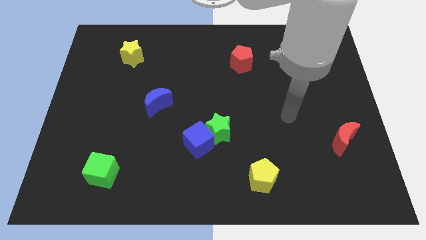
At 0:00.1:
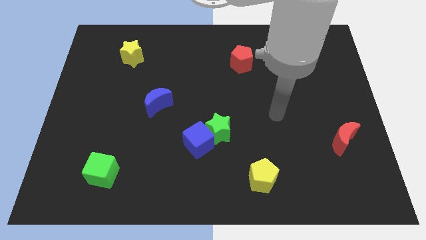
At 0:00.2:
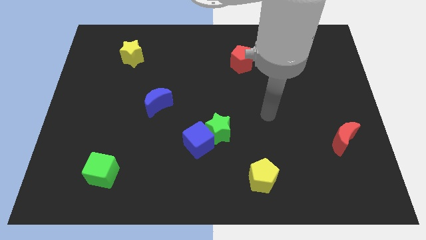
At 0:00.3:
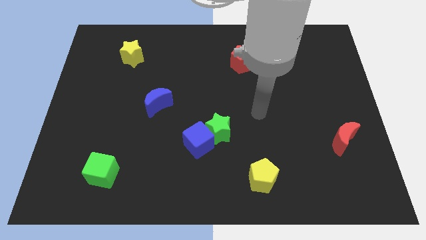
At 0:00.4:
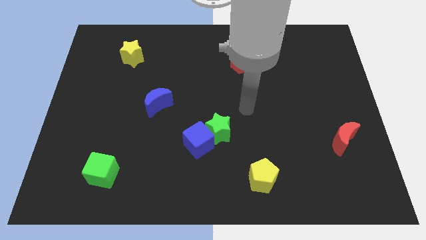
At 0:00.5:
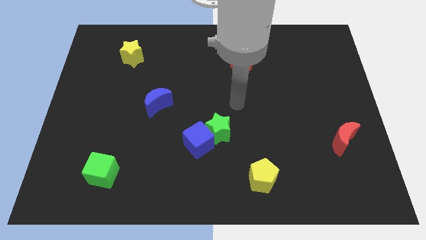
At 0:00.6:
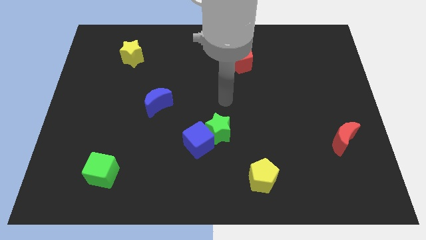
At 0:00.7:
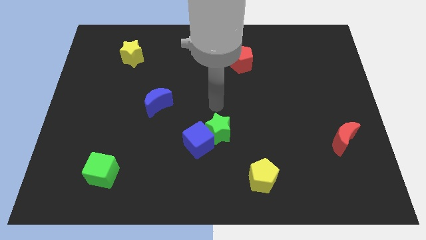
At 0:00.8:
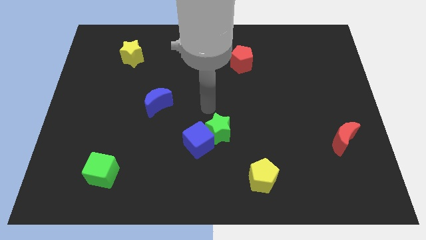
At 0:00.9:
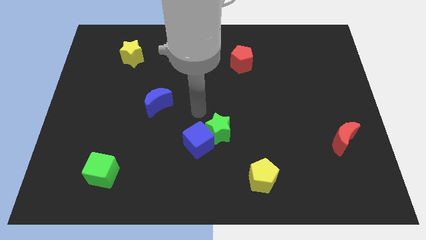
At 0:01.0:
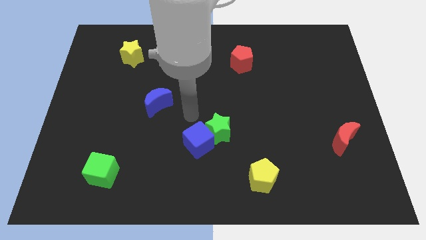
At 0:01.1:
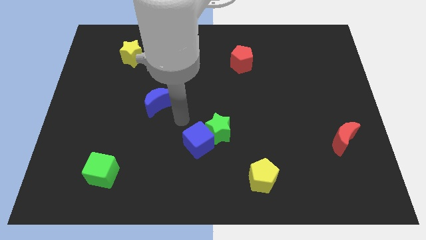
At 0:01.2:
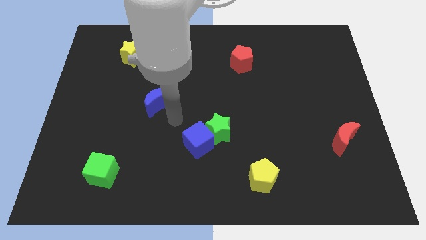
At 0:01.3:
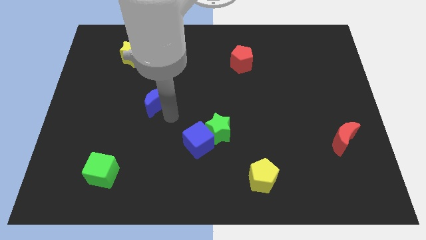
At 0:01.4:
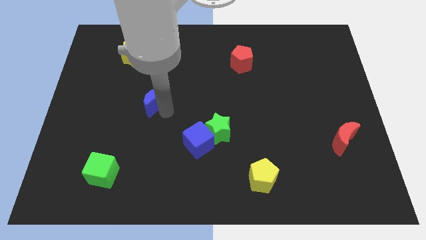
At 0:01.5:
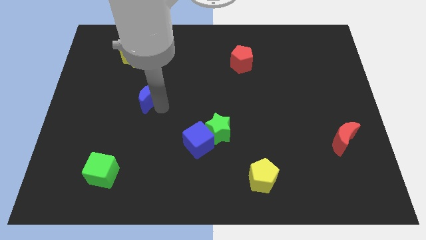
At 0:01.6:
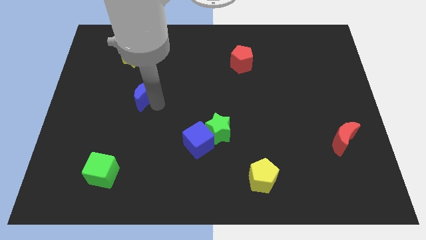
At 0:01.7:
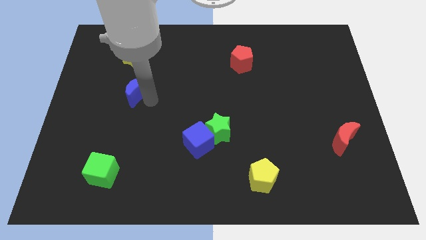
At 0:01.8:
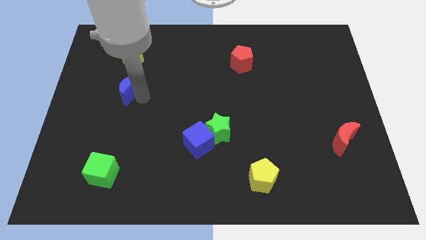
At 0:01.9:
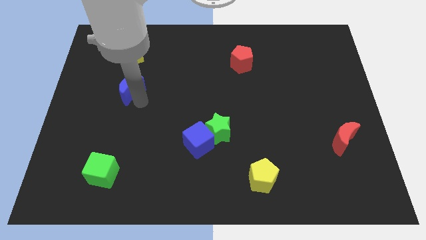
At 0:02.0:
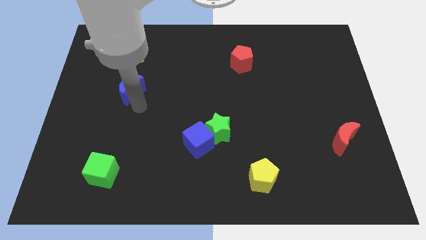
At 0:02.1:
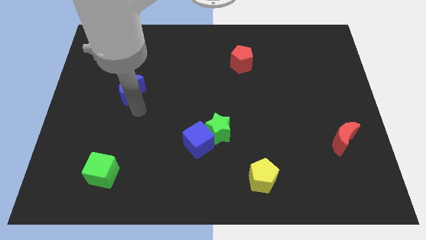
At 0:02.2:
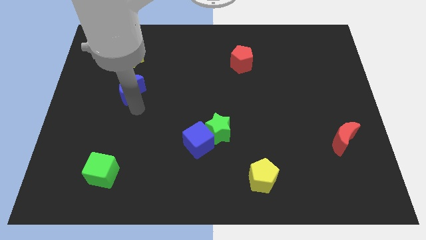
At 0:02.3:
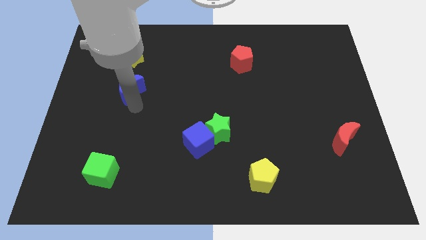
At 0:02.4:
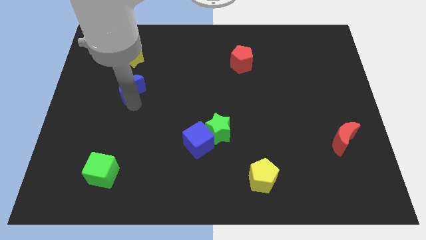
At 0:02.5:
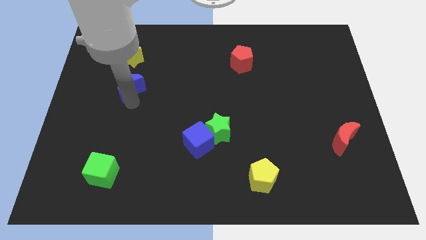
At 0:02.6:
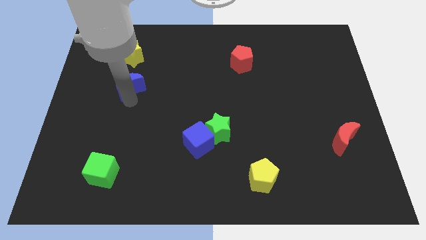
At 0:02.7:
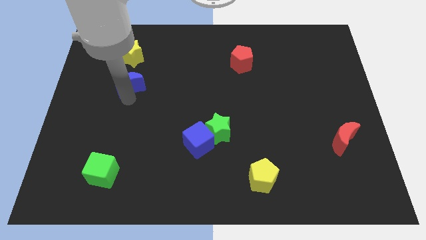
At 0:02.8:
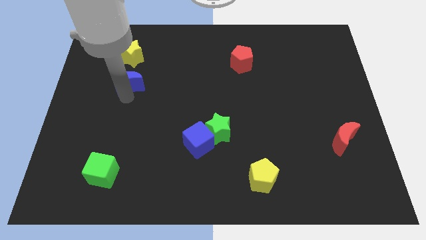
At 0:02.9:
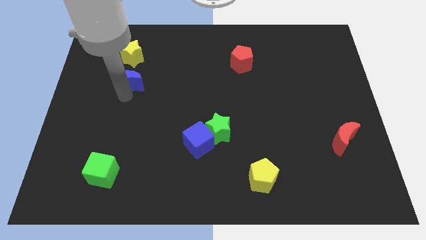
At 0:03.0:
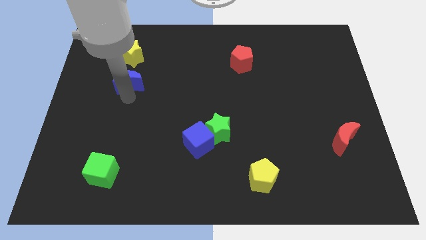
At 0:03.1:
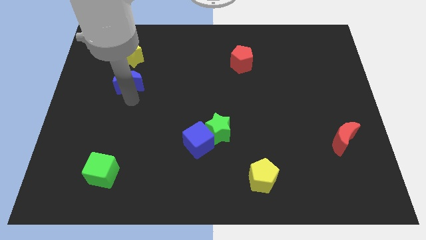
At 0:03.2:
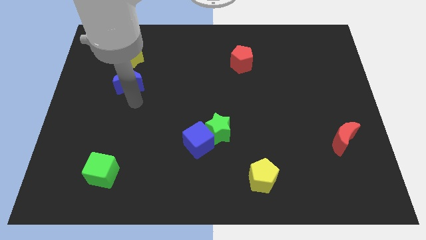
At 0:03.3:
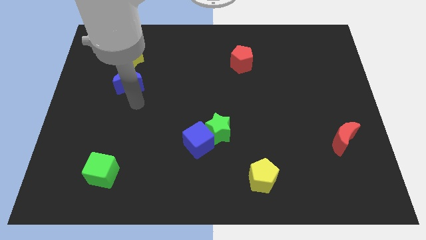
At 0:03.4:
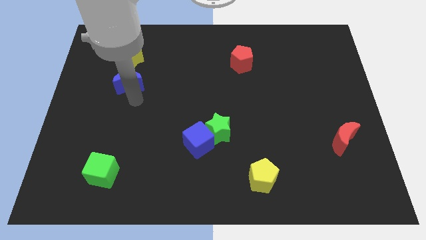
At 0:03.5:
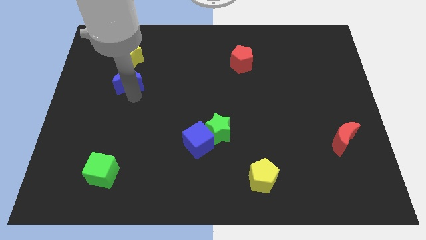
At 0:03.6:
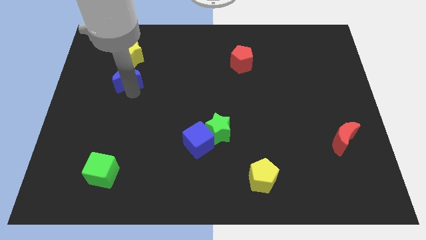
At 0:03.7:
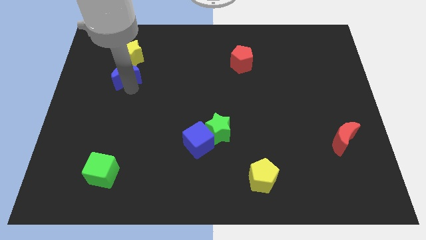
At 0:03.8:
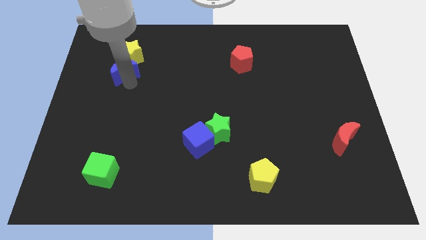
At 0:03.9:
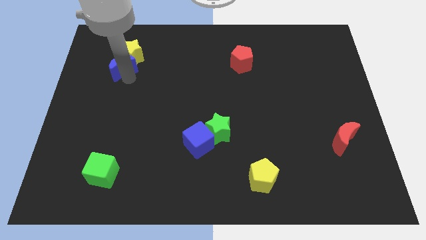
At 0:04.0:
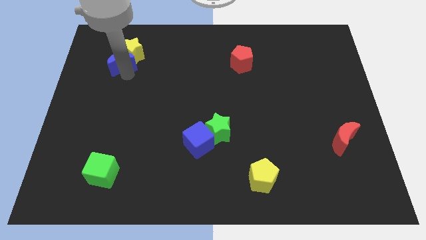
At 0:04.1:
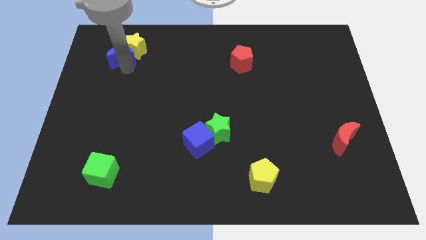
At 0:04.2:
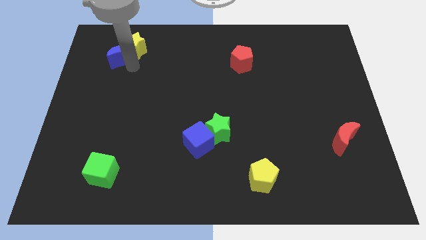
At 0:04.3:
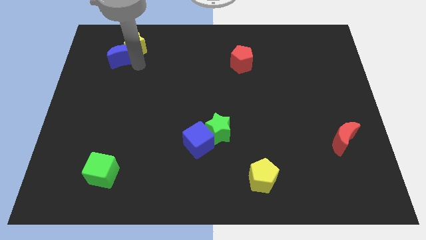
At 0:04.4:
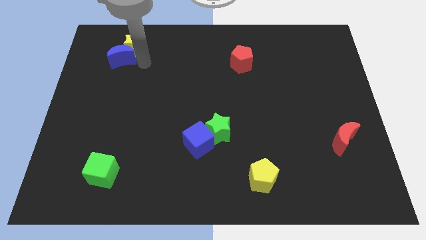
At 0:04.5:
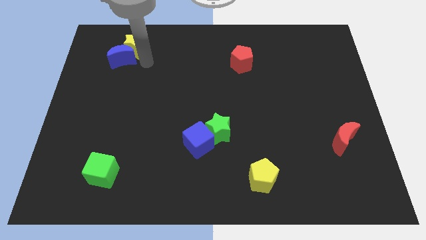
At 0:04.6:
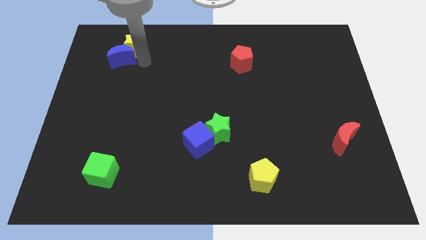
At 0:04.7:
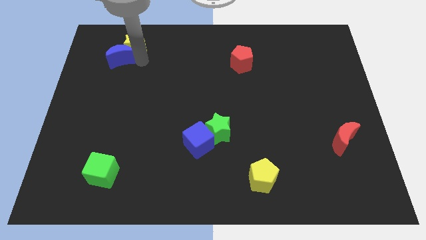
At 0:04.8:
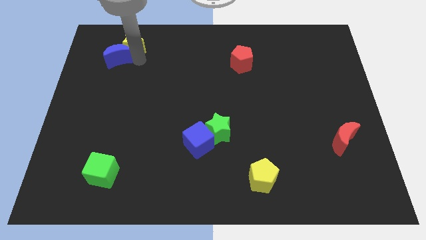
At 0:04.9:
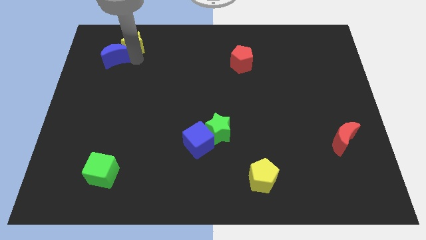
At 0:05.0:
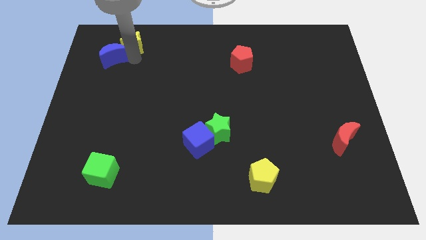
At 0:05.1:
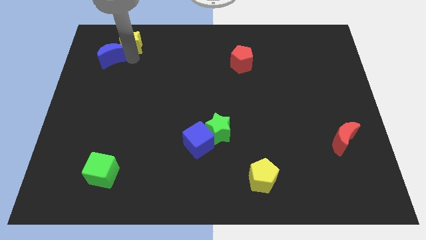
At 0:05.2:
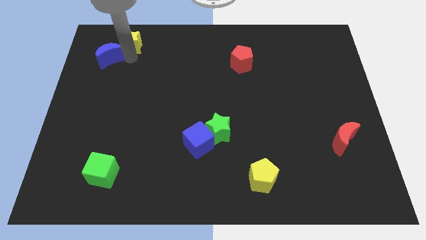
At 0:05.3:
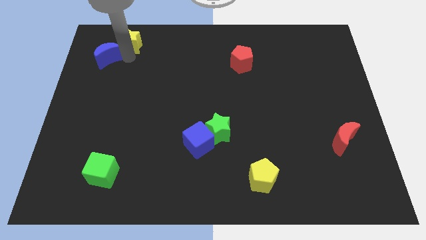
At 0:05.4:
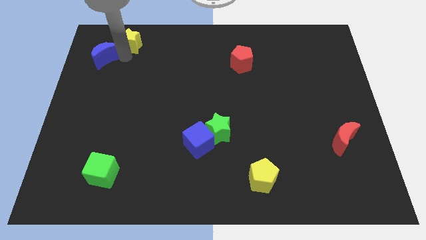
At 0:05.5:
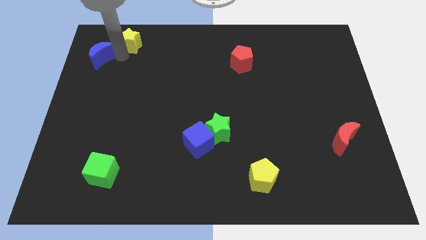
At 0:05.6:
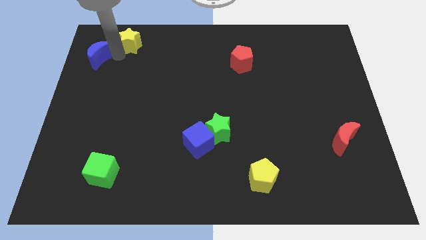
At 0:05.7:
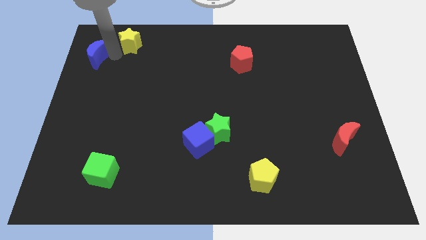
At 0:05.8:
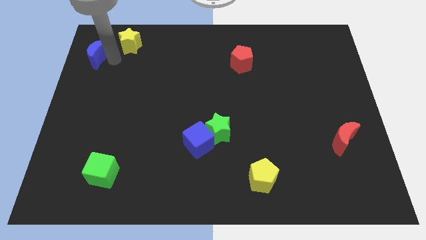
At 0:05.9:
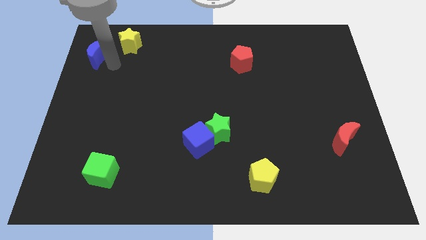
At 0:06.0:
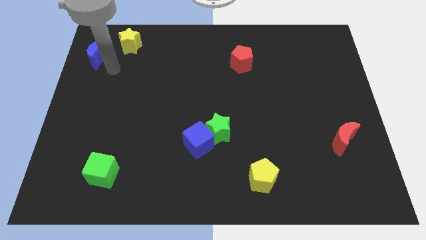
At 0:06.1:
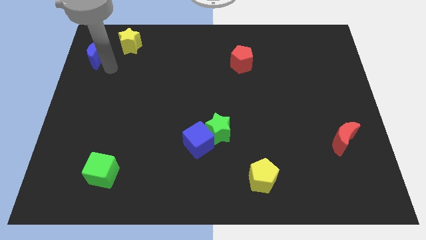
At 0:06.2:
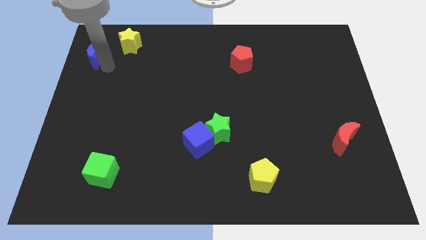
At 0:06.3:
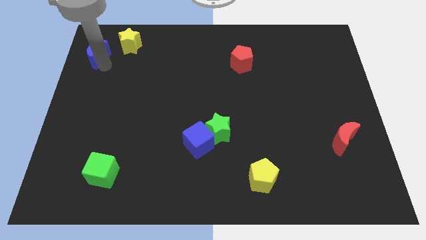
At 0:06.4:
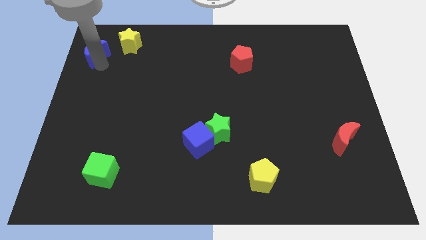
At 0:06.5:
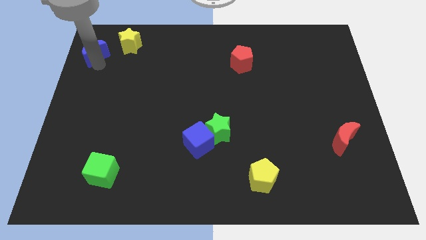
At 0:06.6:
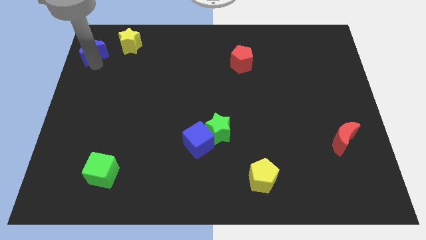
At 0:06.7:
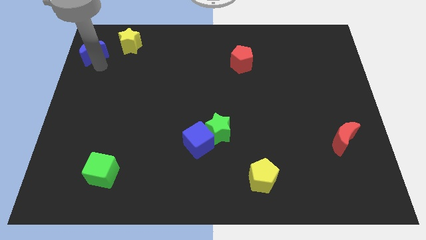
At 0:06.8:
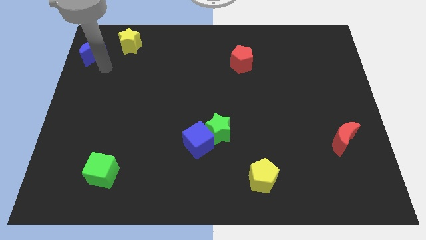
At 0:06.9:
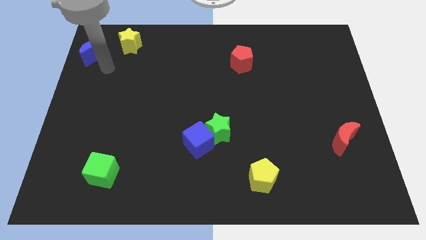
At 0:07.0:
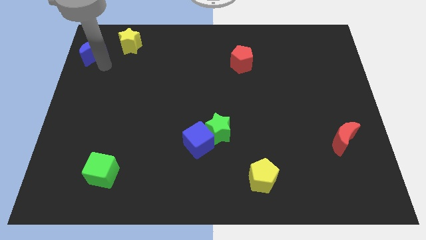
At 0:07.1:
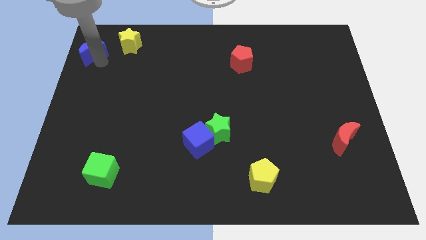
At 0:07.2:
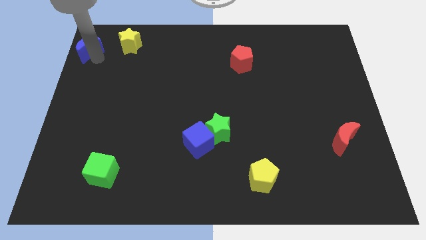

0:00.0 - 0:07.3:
slide the blue moon to the top left of the board
